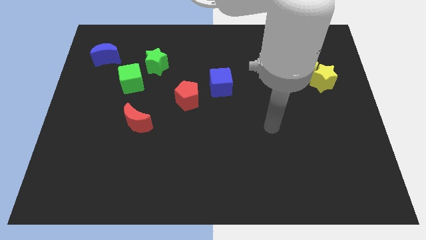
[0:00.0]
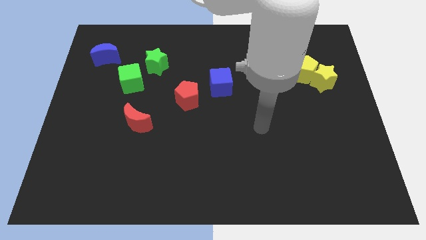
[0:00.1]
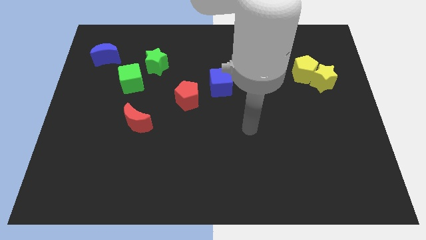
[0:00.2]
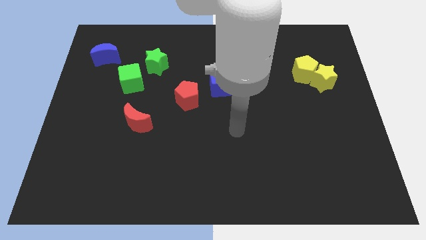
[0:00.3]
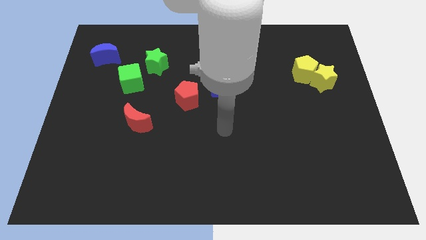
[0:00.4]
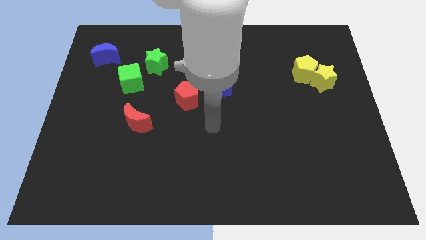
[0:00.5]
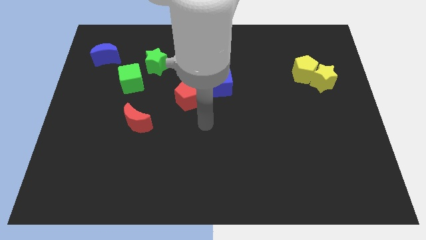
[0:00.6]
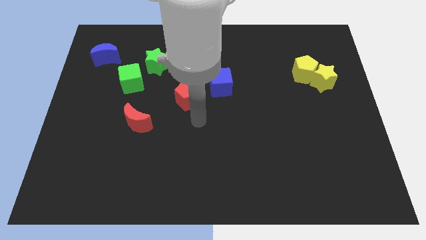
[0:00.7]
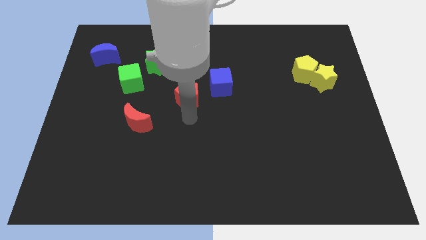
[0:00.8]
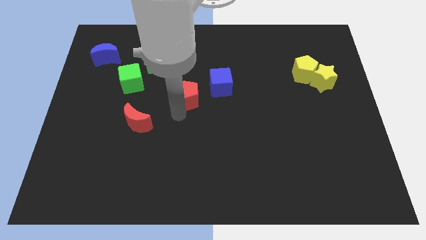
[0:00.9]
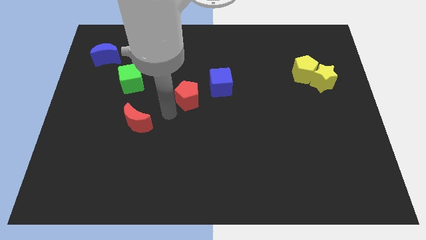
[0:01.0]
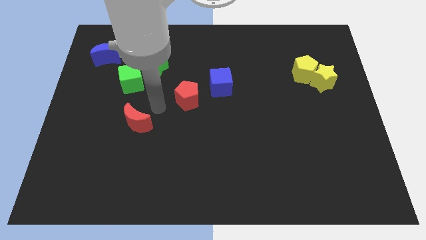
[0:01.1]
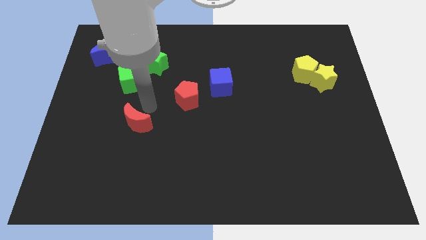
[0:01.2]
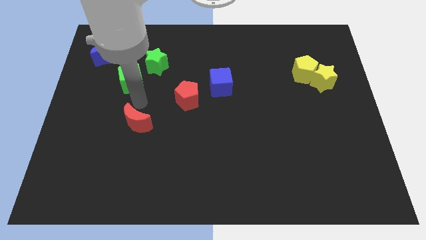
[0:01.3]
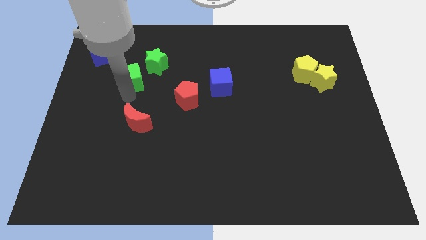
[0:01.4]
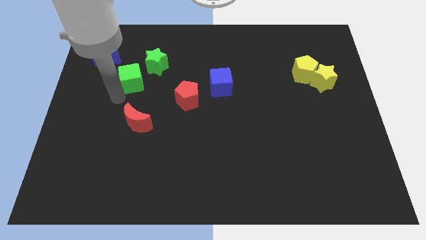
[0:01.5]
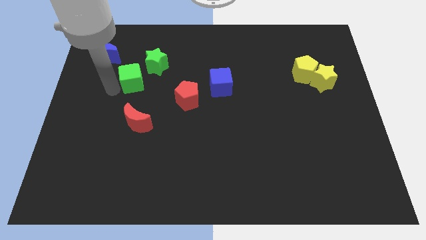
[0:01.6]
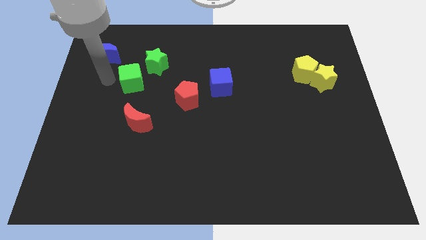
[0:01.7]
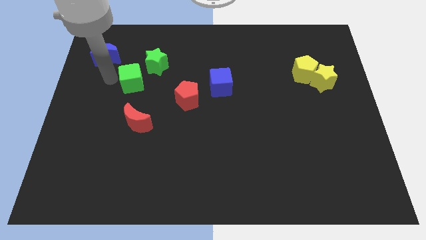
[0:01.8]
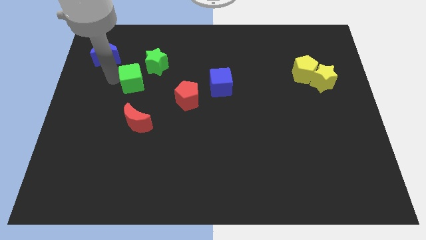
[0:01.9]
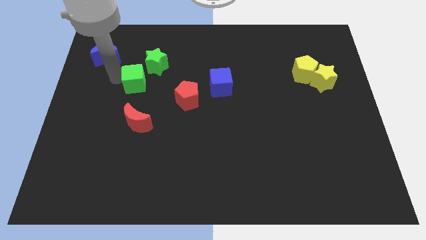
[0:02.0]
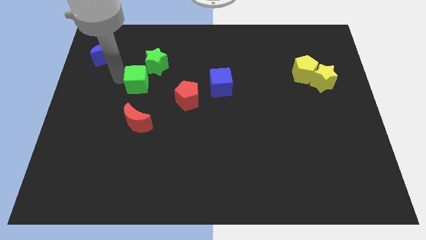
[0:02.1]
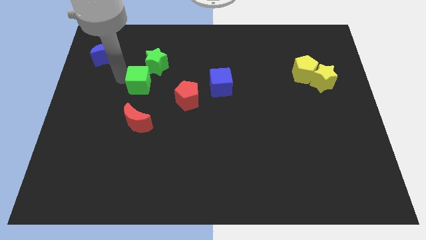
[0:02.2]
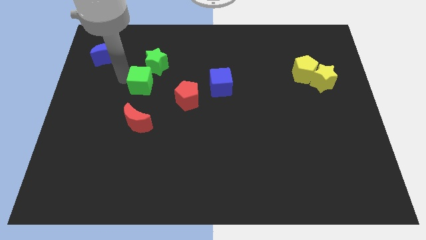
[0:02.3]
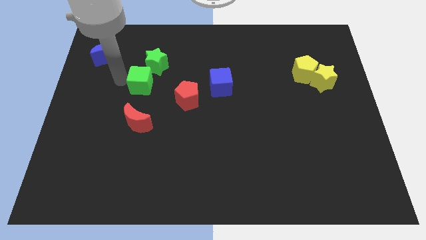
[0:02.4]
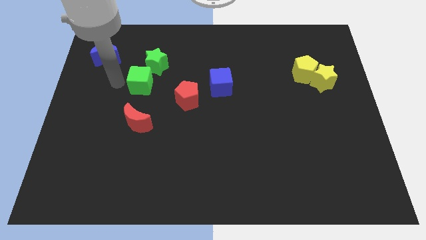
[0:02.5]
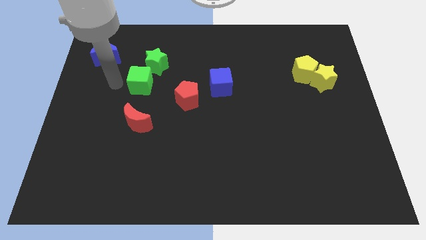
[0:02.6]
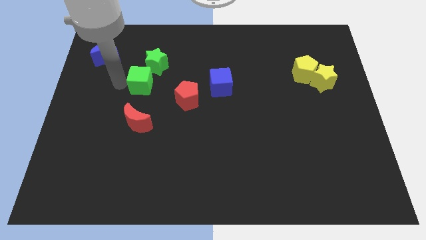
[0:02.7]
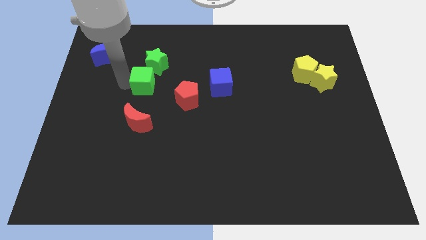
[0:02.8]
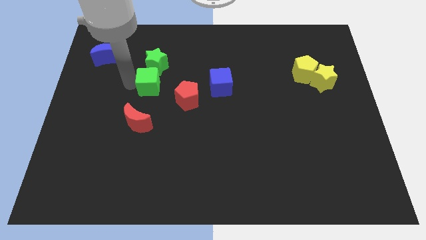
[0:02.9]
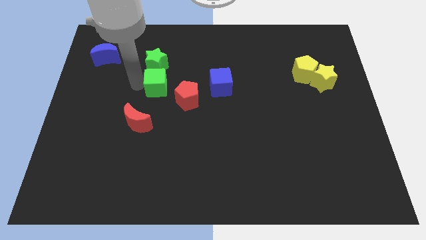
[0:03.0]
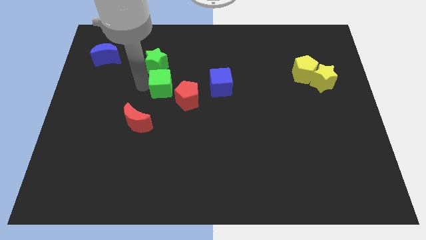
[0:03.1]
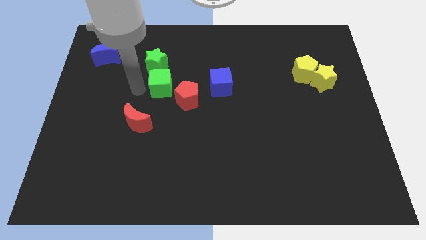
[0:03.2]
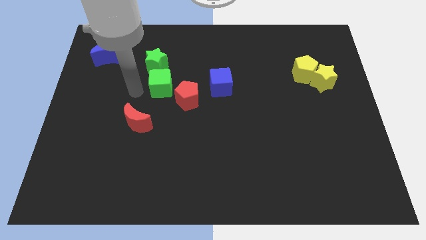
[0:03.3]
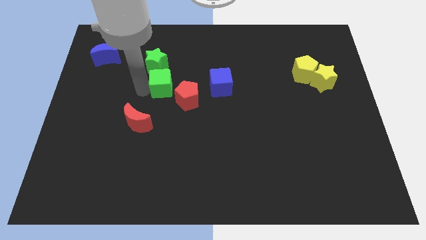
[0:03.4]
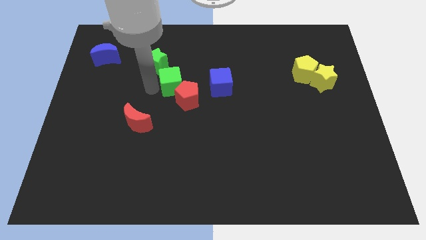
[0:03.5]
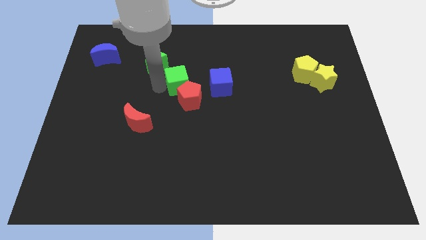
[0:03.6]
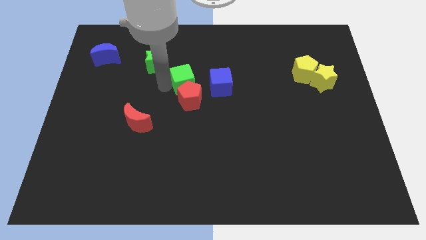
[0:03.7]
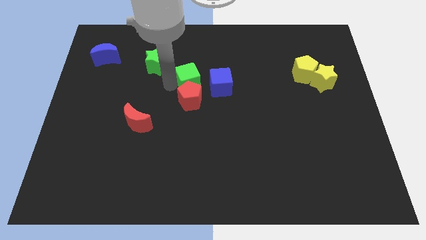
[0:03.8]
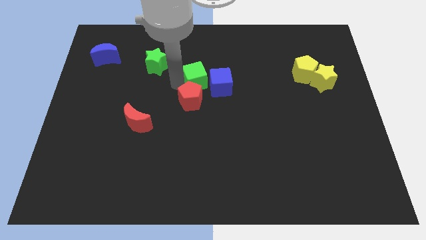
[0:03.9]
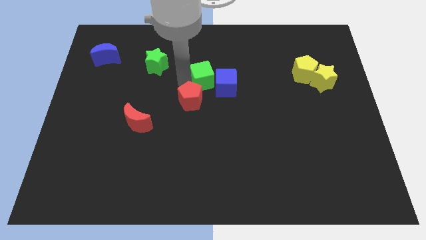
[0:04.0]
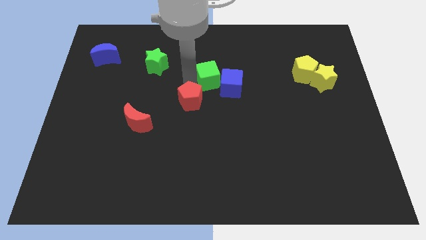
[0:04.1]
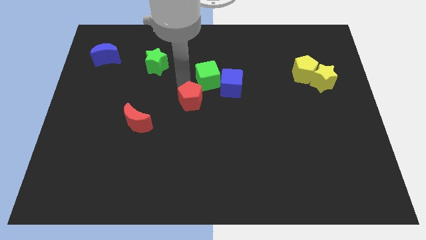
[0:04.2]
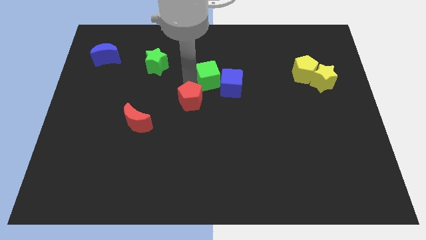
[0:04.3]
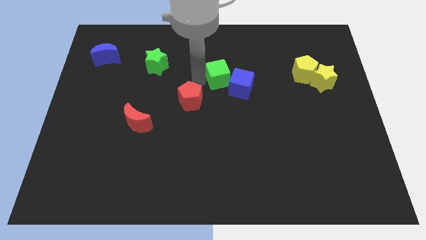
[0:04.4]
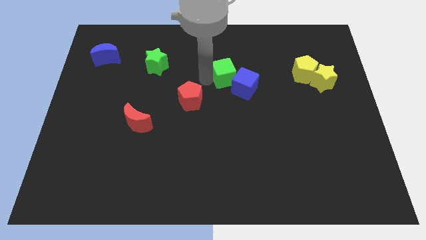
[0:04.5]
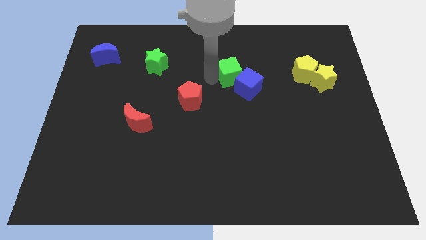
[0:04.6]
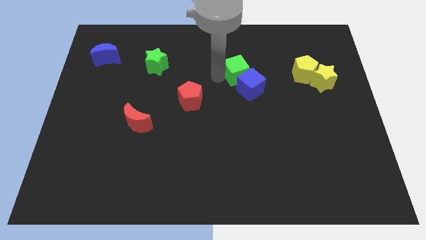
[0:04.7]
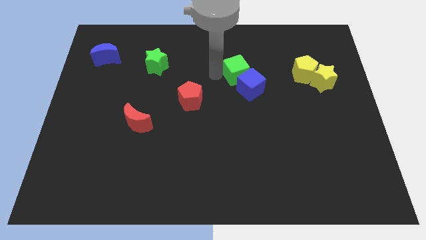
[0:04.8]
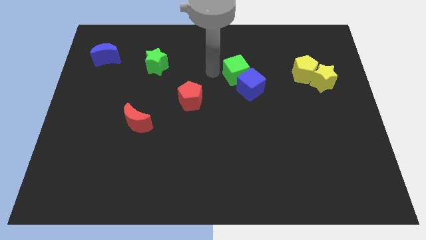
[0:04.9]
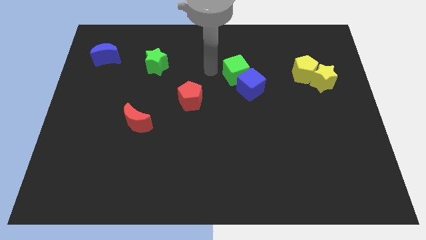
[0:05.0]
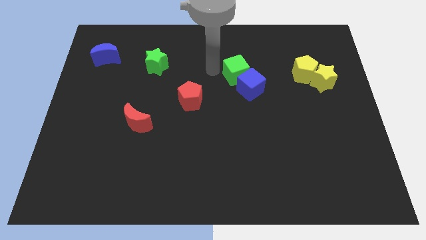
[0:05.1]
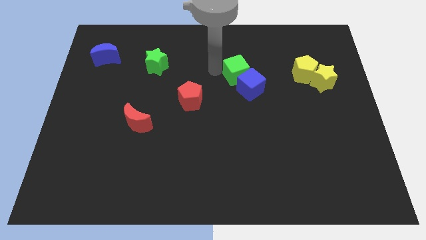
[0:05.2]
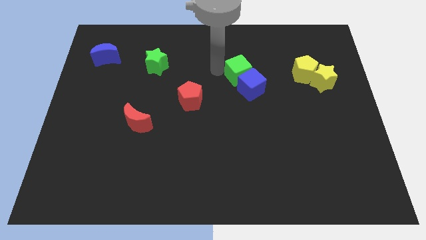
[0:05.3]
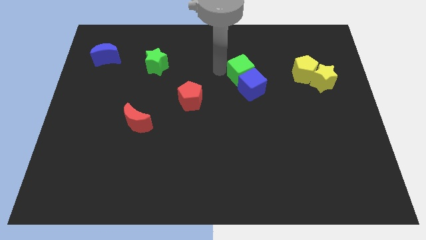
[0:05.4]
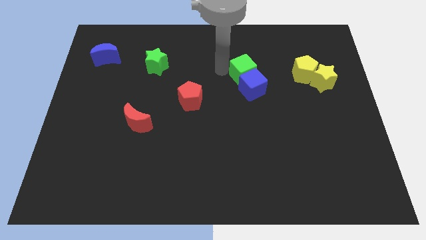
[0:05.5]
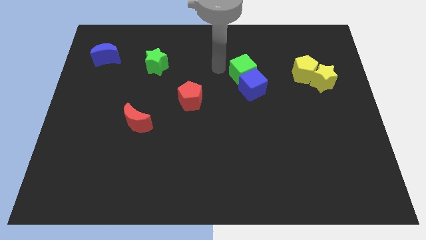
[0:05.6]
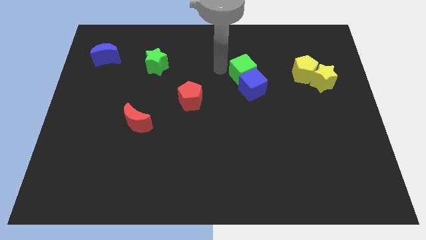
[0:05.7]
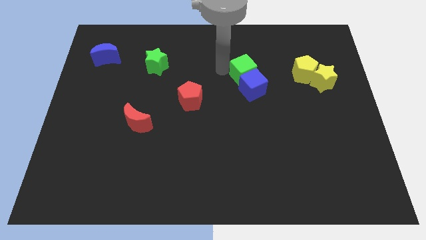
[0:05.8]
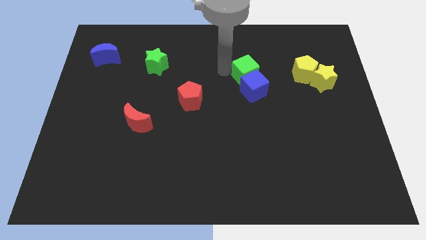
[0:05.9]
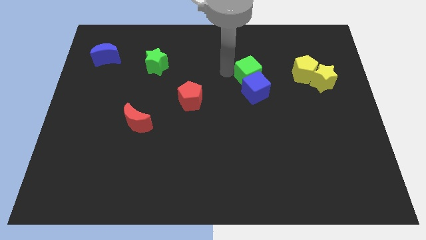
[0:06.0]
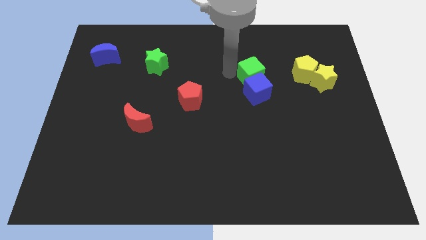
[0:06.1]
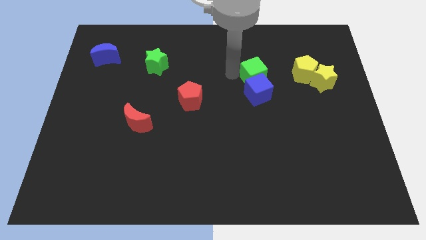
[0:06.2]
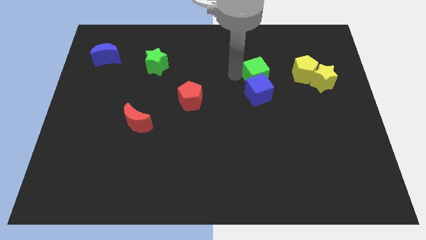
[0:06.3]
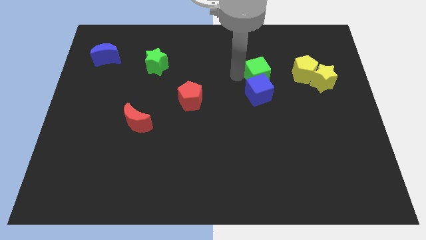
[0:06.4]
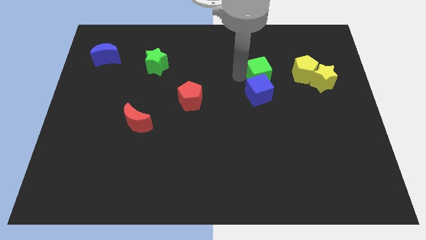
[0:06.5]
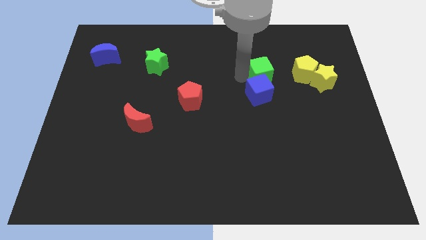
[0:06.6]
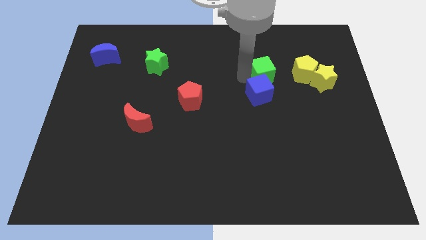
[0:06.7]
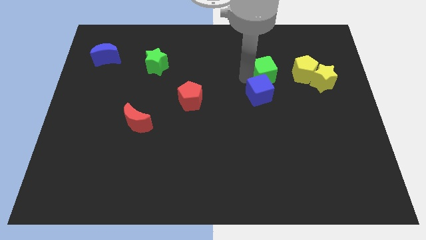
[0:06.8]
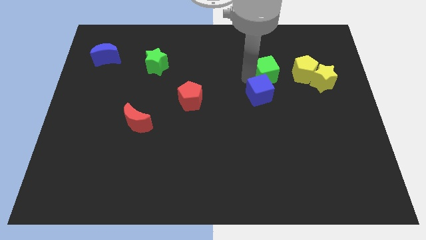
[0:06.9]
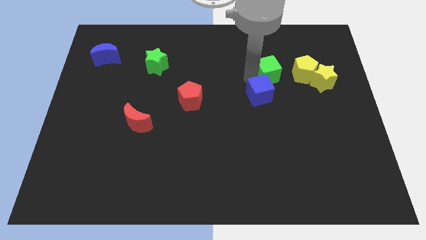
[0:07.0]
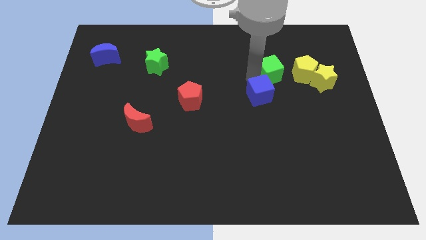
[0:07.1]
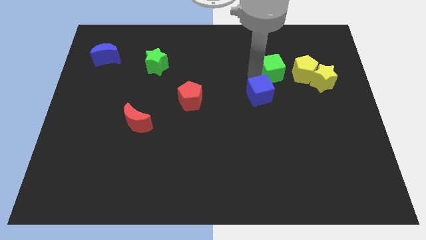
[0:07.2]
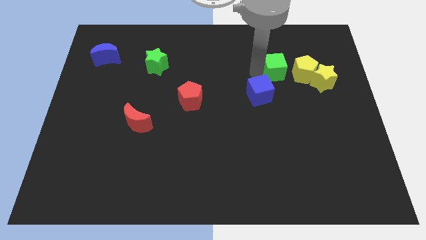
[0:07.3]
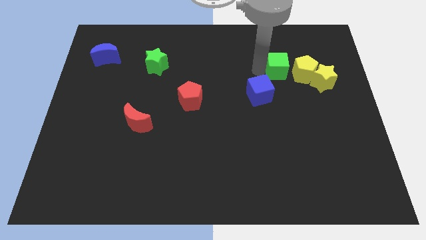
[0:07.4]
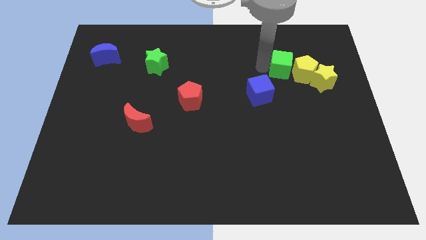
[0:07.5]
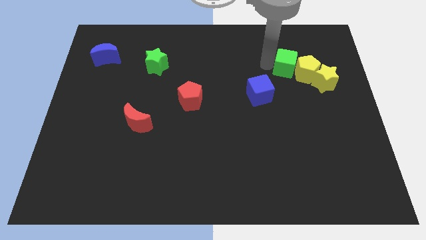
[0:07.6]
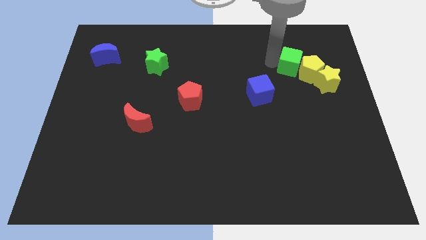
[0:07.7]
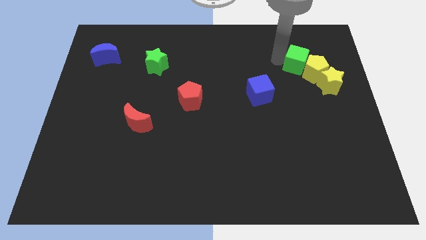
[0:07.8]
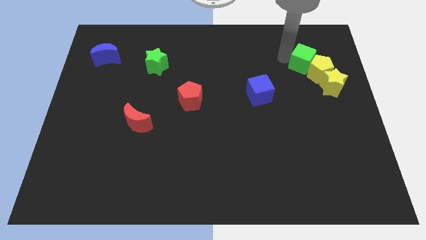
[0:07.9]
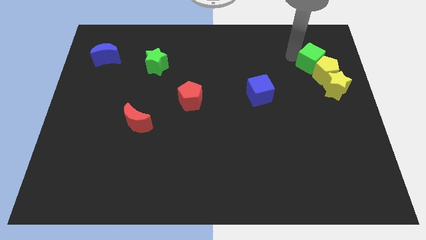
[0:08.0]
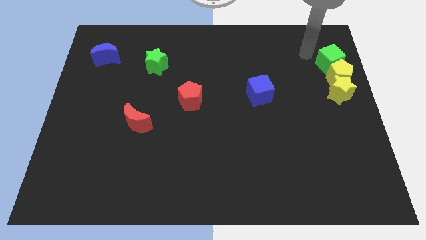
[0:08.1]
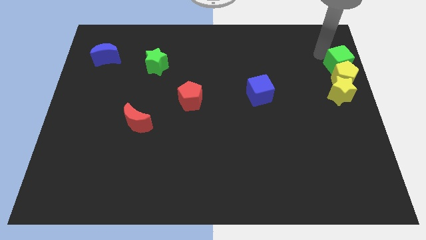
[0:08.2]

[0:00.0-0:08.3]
slide the green cube to the center right
